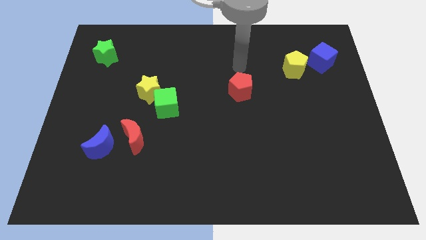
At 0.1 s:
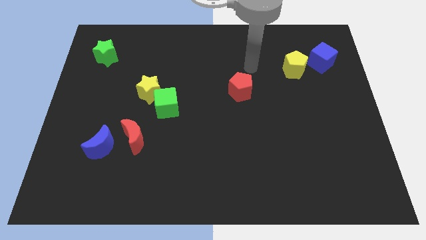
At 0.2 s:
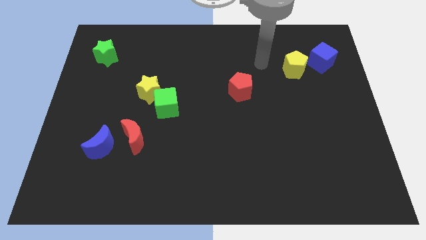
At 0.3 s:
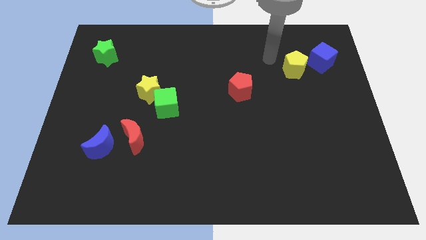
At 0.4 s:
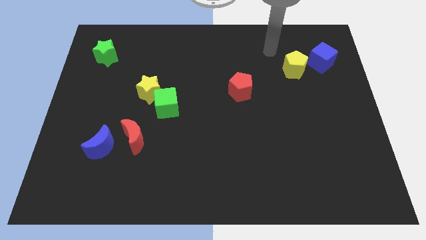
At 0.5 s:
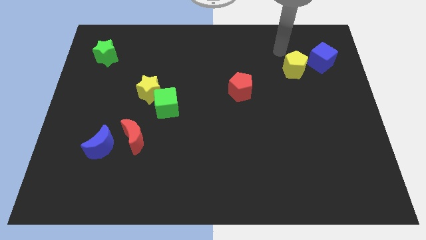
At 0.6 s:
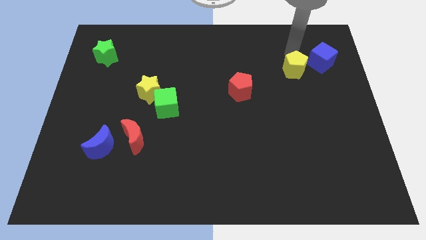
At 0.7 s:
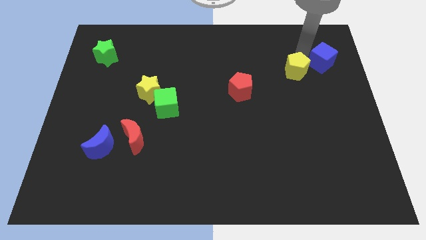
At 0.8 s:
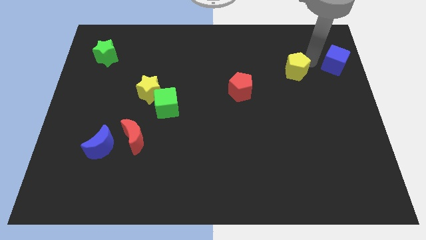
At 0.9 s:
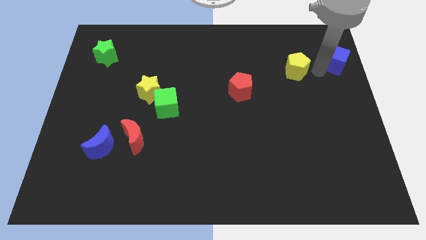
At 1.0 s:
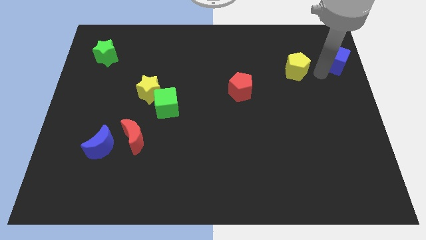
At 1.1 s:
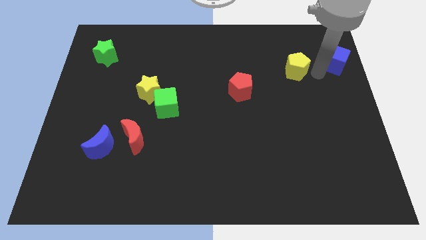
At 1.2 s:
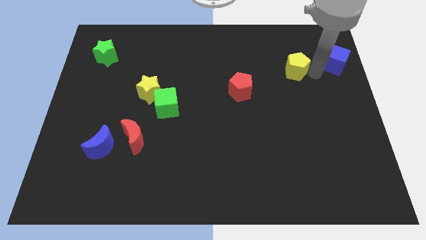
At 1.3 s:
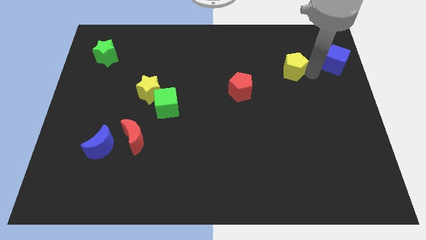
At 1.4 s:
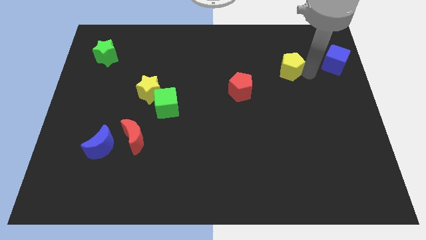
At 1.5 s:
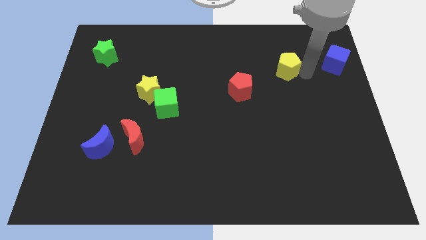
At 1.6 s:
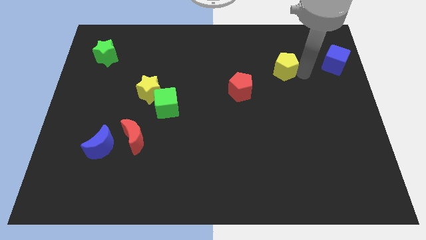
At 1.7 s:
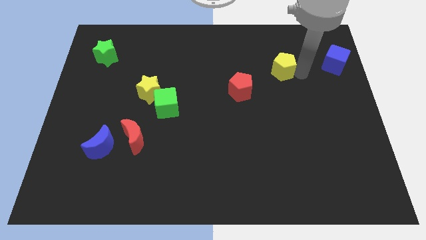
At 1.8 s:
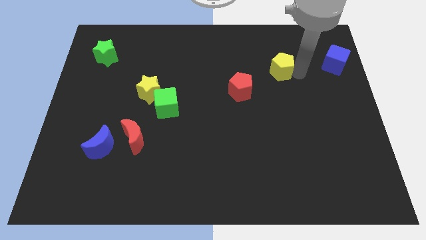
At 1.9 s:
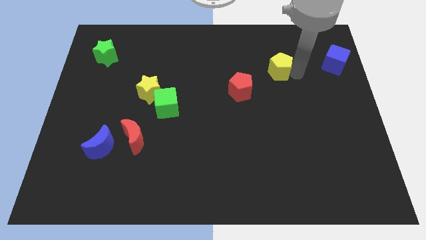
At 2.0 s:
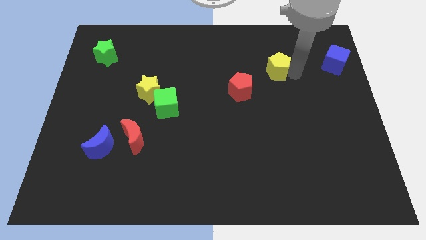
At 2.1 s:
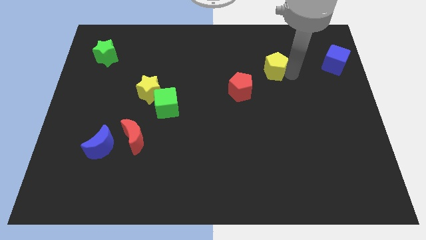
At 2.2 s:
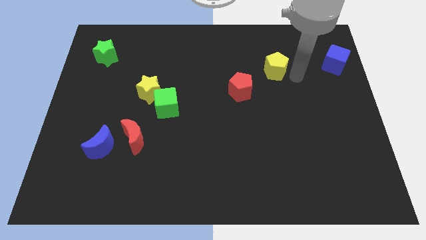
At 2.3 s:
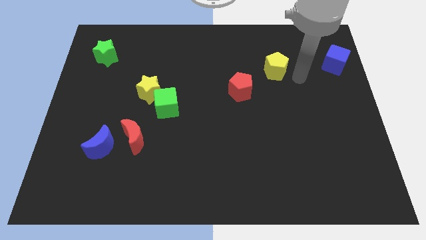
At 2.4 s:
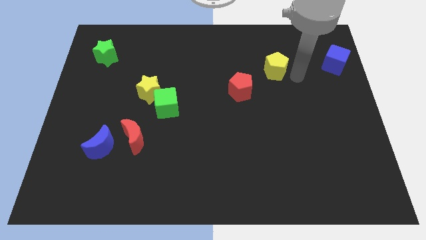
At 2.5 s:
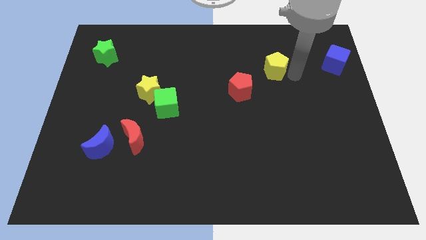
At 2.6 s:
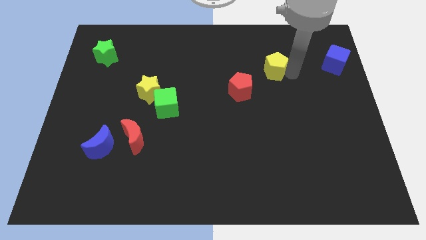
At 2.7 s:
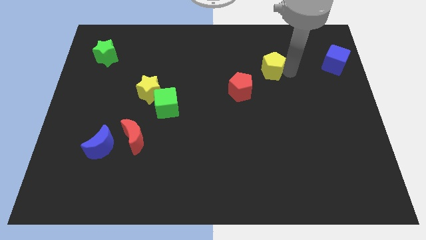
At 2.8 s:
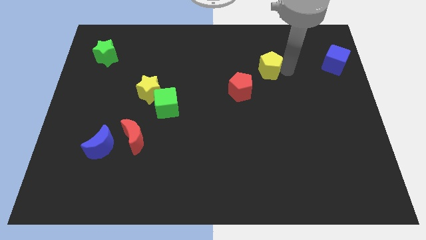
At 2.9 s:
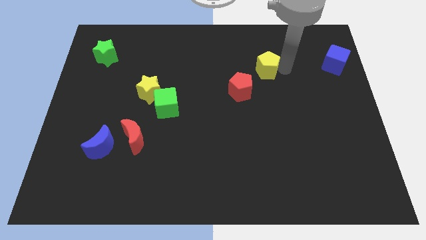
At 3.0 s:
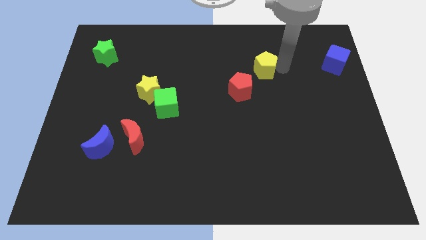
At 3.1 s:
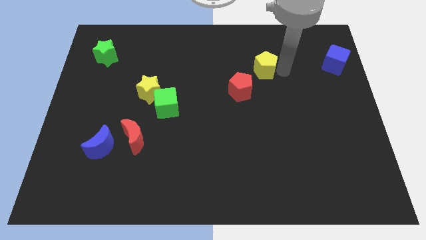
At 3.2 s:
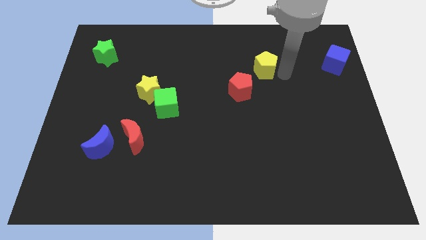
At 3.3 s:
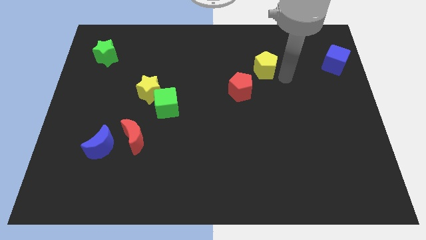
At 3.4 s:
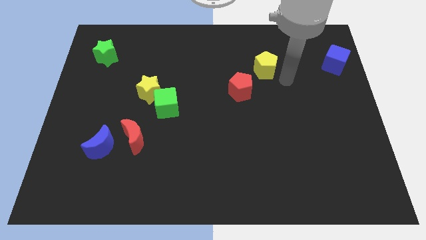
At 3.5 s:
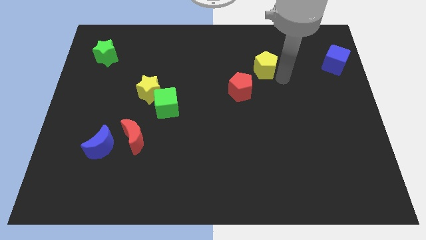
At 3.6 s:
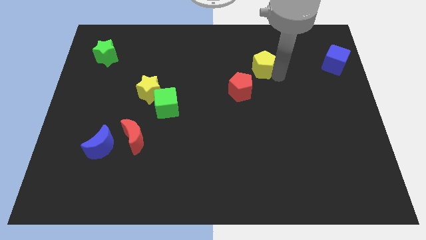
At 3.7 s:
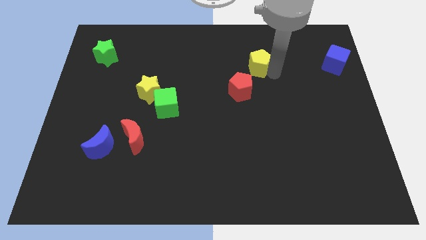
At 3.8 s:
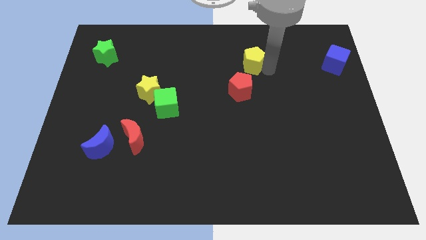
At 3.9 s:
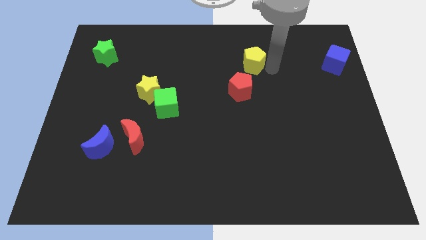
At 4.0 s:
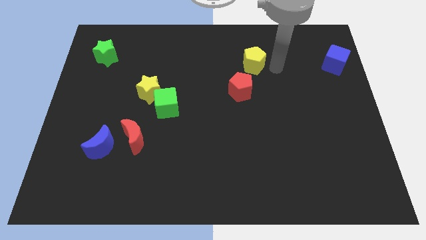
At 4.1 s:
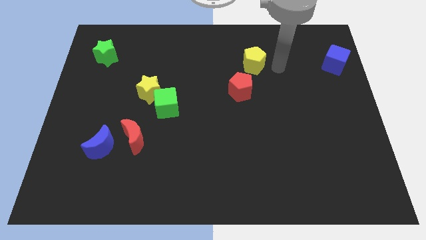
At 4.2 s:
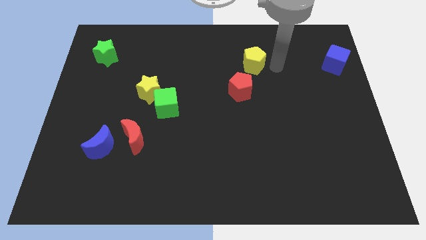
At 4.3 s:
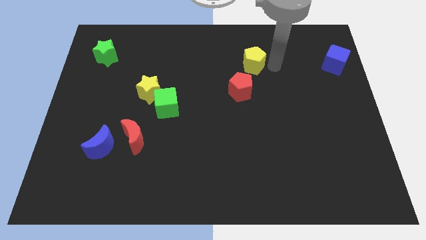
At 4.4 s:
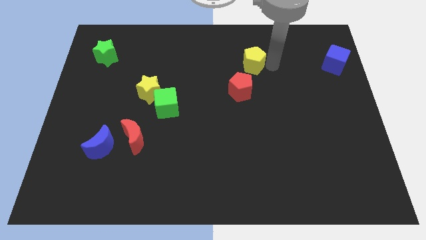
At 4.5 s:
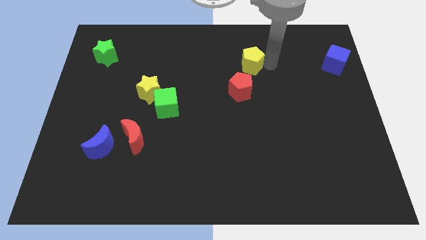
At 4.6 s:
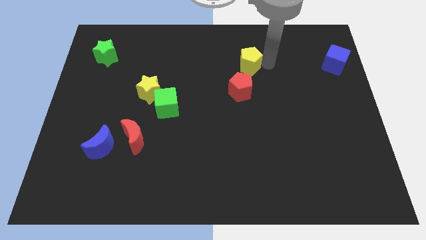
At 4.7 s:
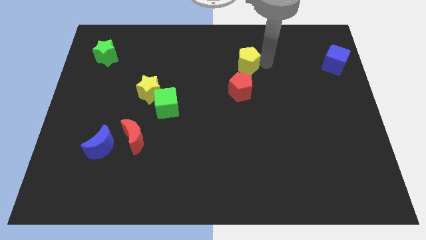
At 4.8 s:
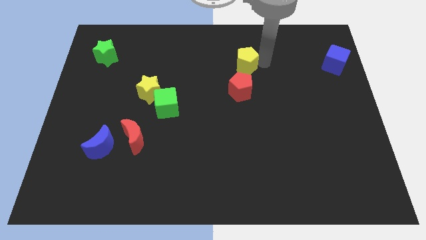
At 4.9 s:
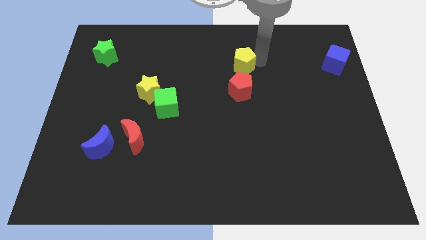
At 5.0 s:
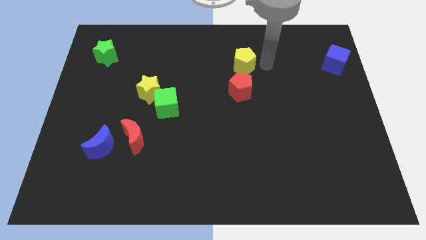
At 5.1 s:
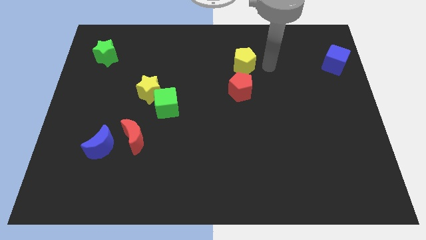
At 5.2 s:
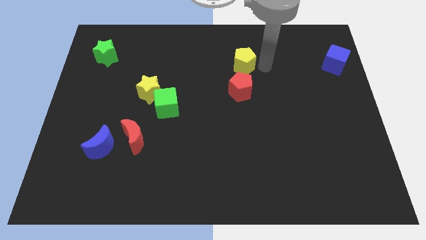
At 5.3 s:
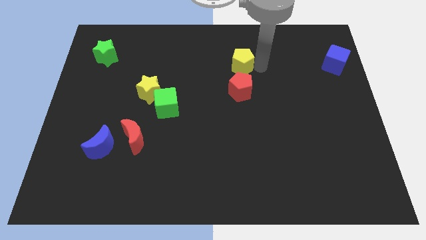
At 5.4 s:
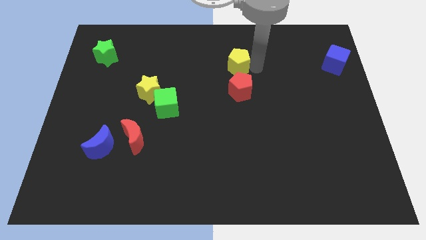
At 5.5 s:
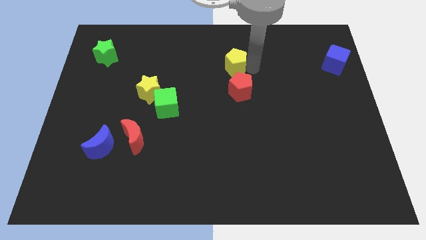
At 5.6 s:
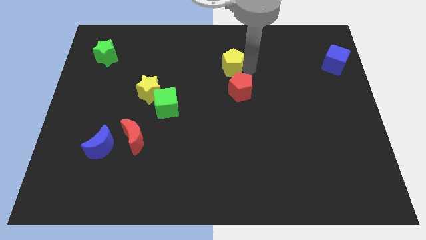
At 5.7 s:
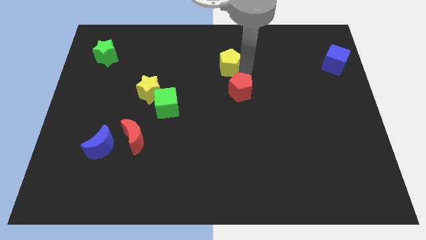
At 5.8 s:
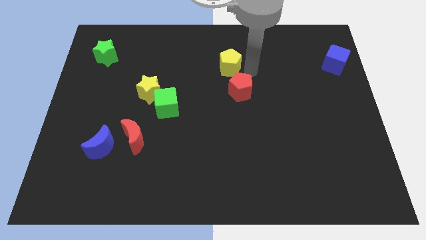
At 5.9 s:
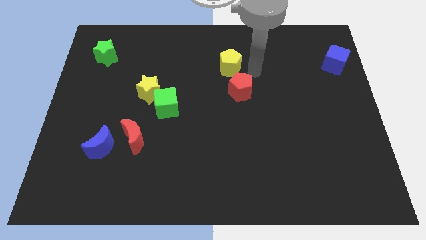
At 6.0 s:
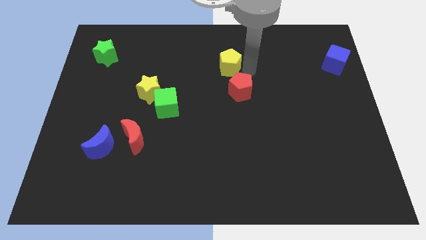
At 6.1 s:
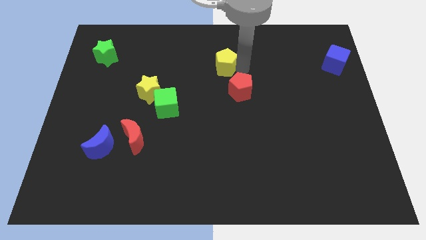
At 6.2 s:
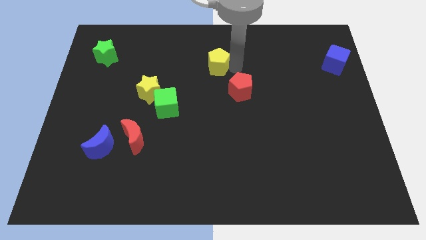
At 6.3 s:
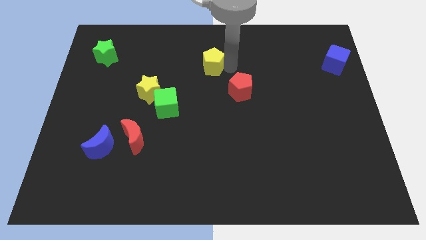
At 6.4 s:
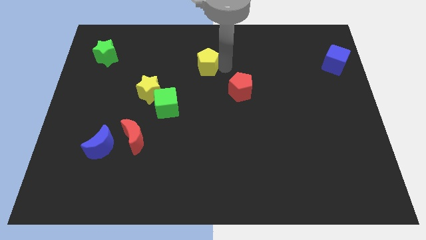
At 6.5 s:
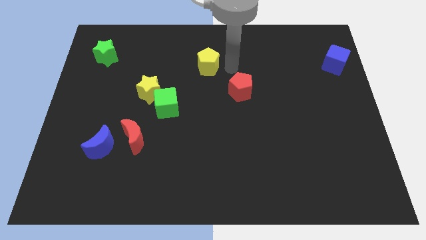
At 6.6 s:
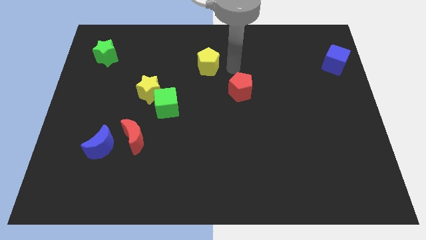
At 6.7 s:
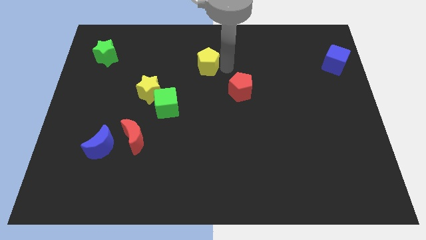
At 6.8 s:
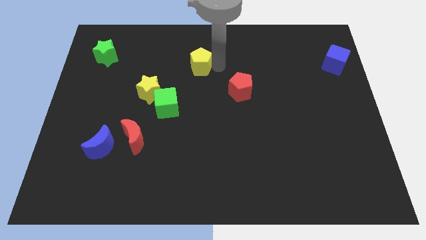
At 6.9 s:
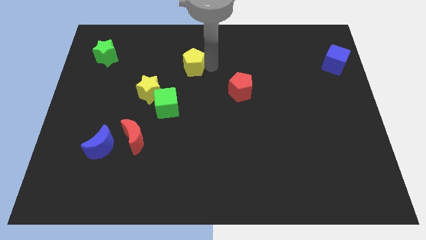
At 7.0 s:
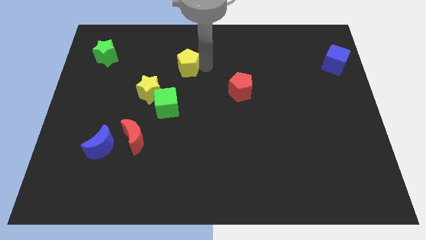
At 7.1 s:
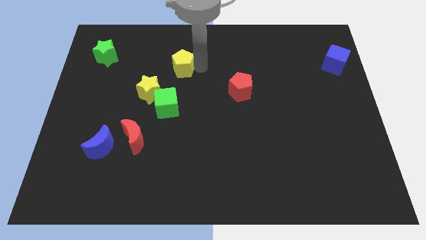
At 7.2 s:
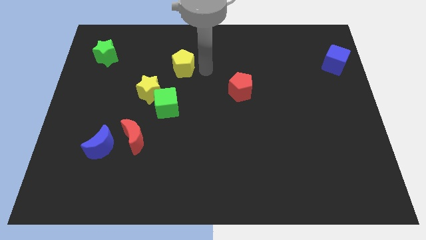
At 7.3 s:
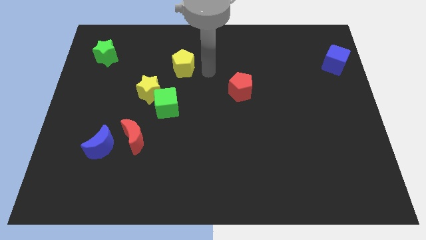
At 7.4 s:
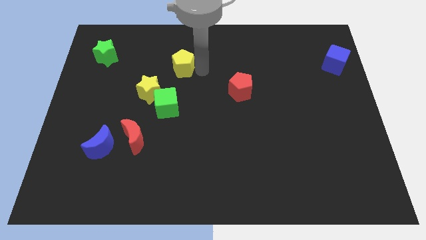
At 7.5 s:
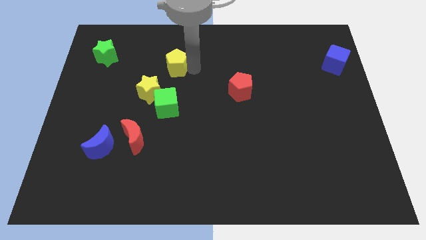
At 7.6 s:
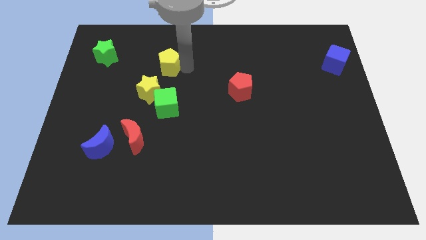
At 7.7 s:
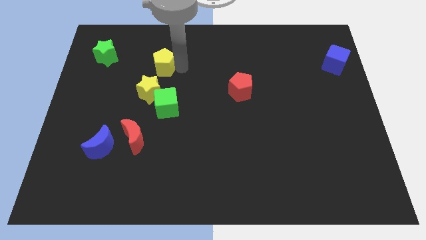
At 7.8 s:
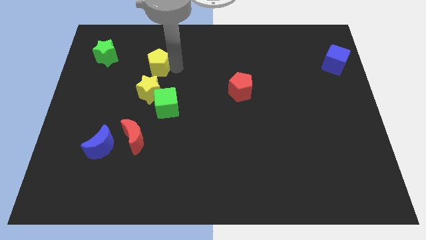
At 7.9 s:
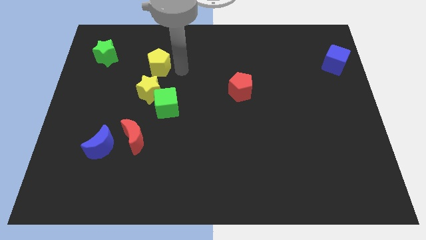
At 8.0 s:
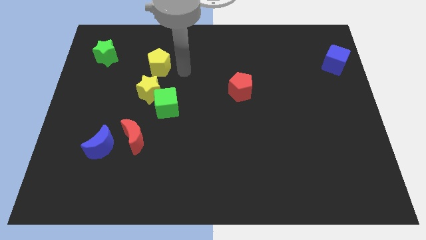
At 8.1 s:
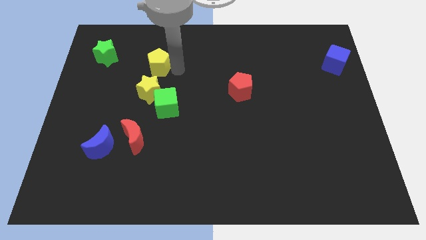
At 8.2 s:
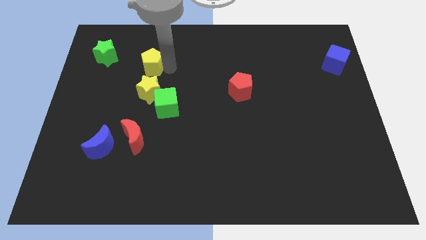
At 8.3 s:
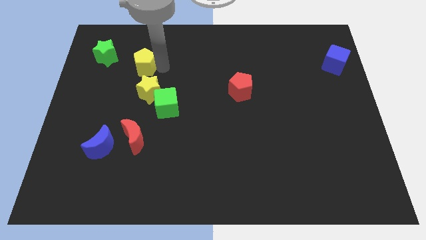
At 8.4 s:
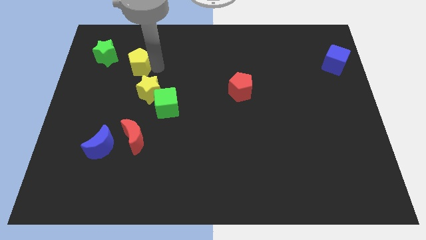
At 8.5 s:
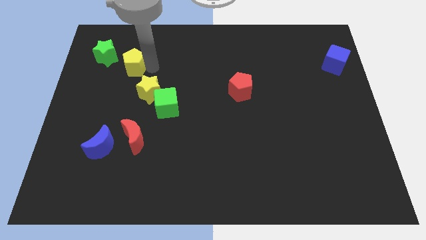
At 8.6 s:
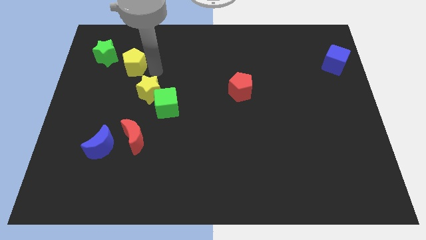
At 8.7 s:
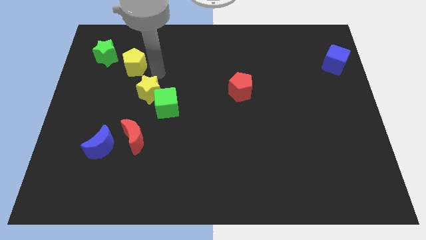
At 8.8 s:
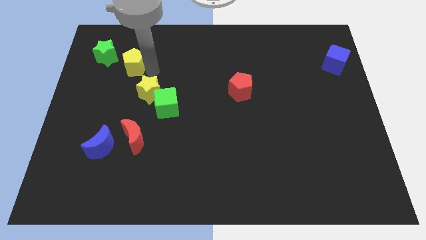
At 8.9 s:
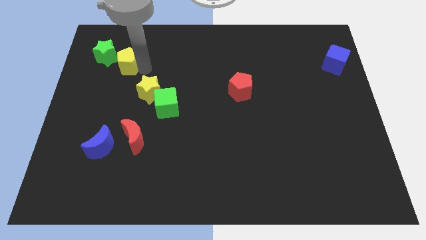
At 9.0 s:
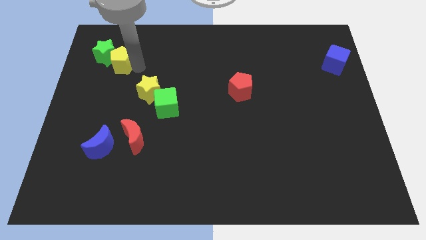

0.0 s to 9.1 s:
slide the yellow pentagon to the green star
